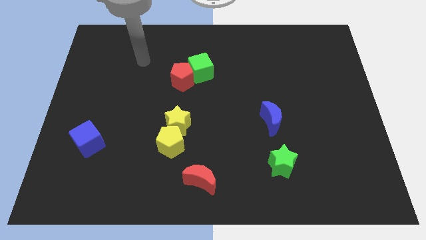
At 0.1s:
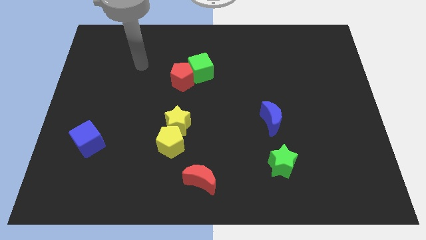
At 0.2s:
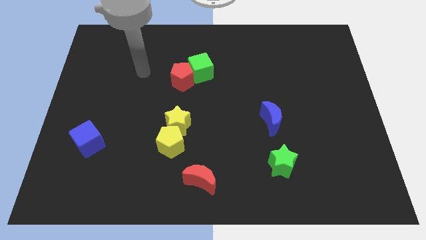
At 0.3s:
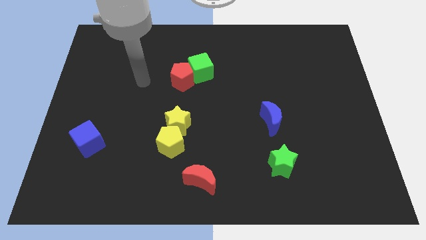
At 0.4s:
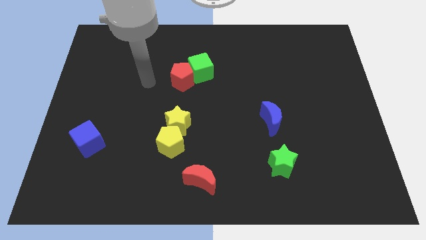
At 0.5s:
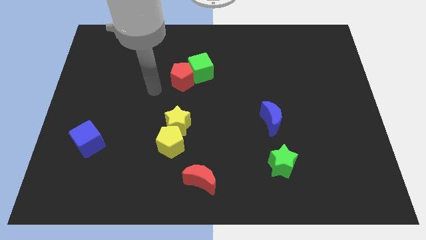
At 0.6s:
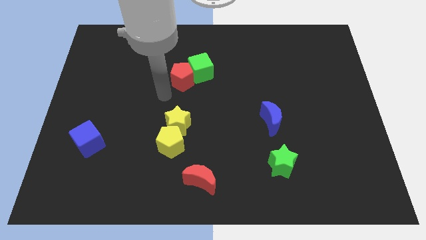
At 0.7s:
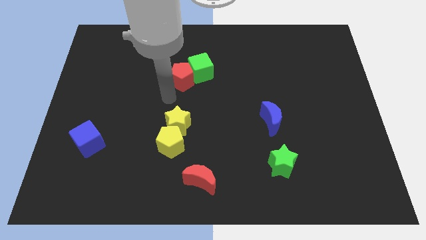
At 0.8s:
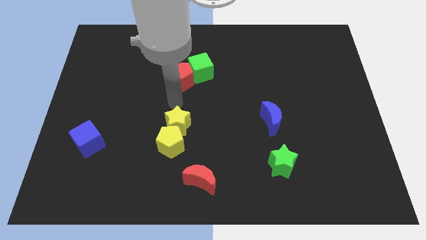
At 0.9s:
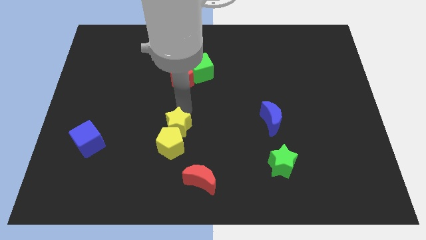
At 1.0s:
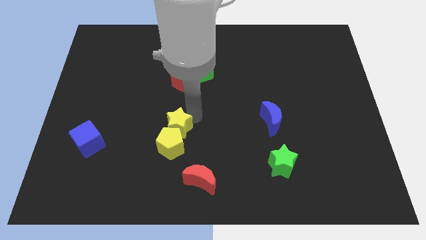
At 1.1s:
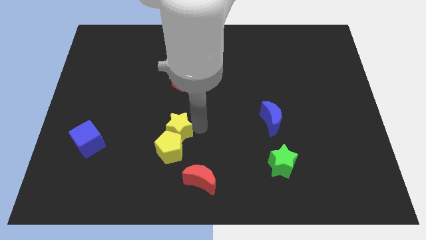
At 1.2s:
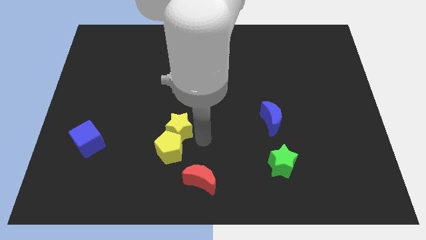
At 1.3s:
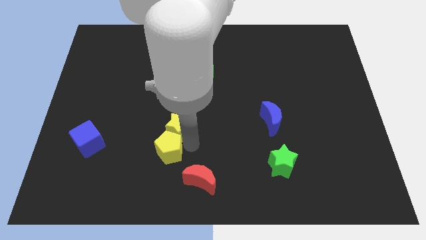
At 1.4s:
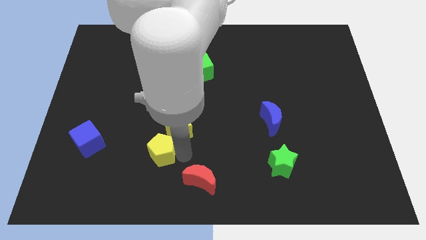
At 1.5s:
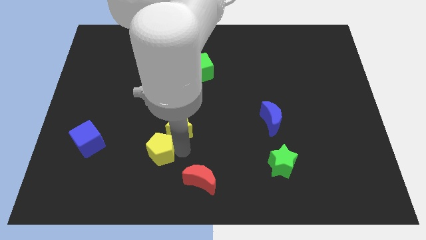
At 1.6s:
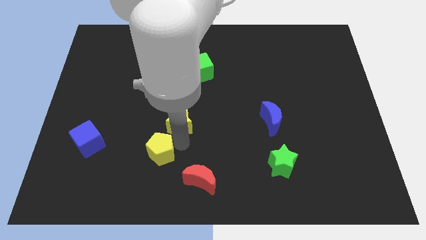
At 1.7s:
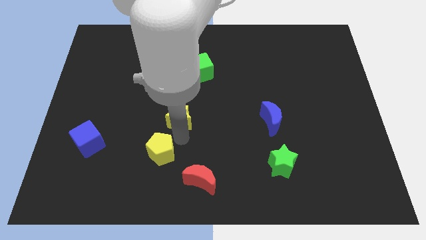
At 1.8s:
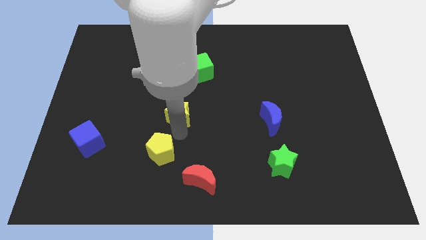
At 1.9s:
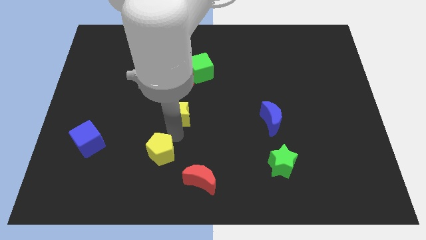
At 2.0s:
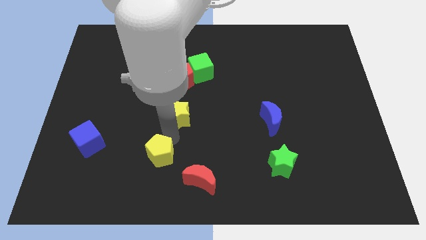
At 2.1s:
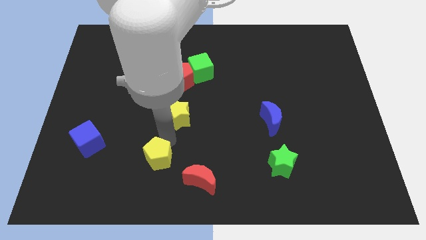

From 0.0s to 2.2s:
separate the yellow star from the yellow pentagon

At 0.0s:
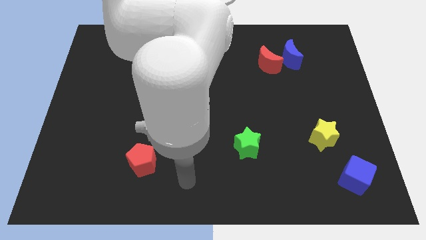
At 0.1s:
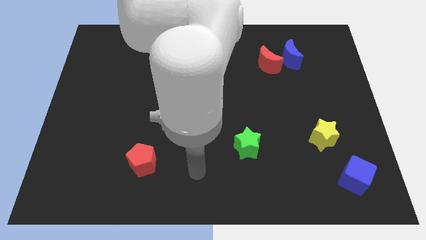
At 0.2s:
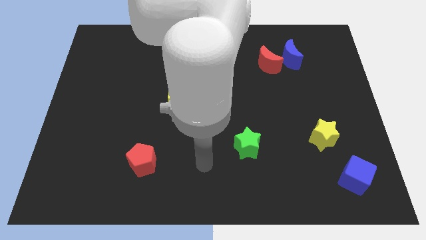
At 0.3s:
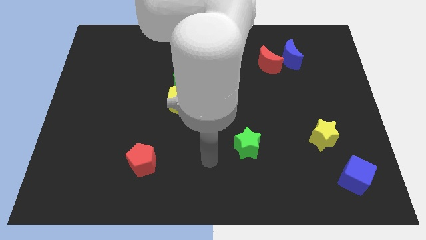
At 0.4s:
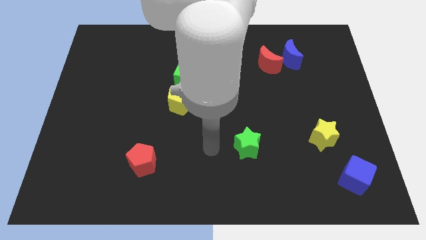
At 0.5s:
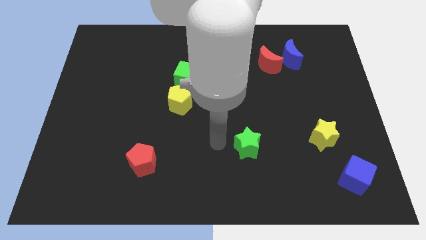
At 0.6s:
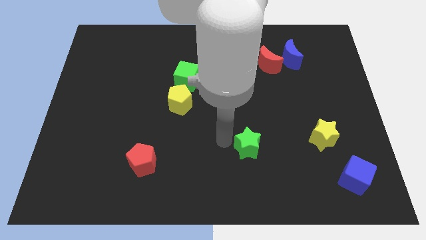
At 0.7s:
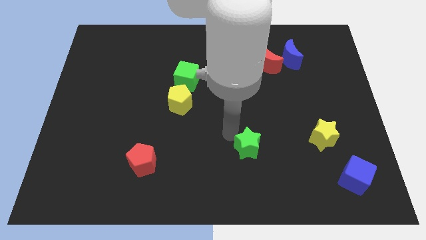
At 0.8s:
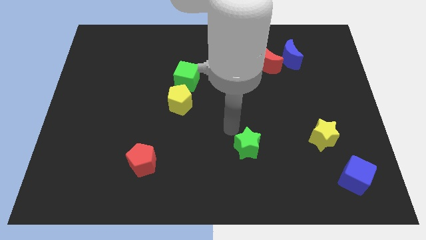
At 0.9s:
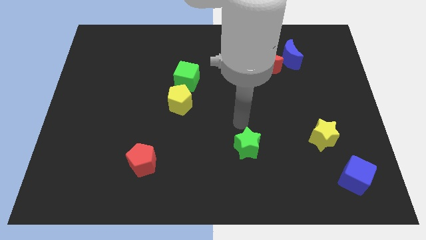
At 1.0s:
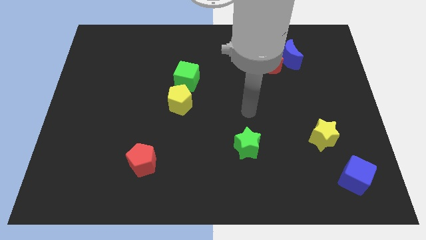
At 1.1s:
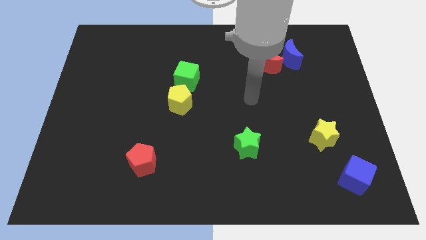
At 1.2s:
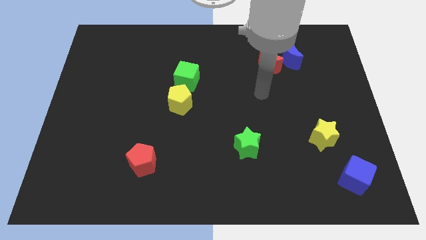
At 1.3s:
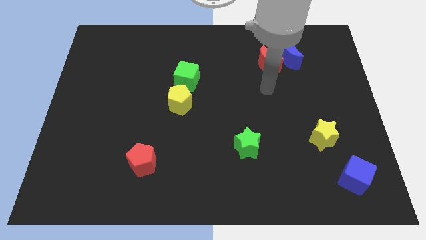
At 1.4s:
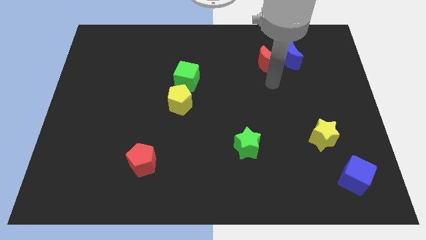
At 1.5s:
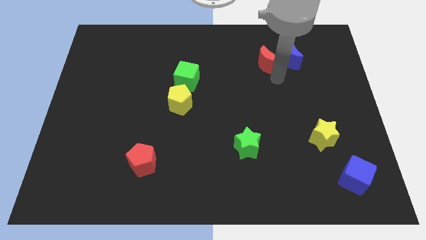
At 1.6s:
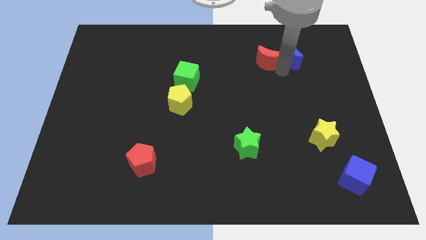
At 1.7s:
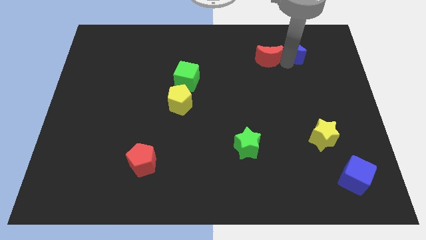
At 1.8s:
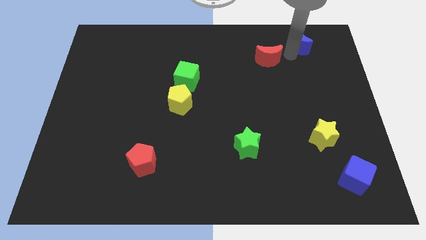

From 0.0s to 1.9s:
separate the red moon from the blue moon

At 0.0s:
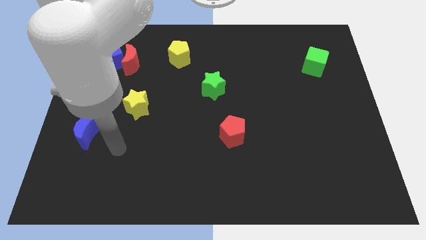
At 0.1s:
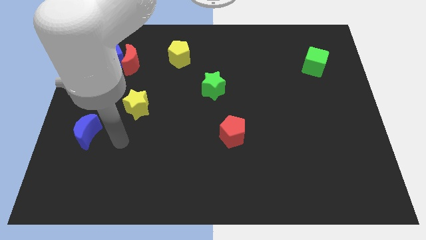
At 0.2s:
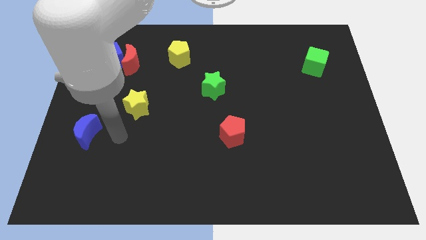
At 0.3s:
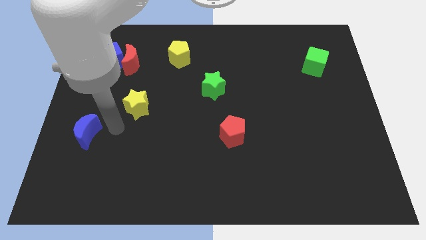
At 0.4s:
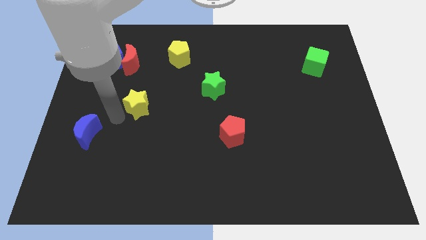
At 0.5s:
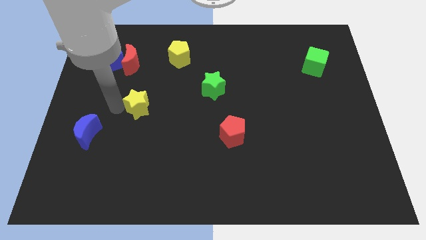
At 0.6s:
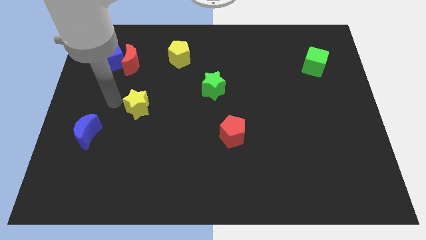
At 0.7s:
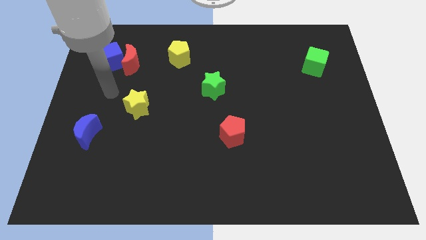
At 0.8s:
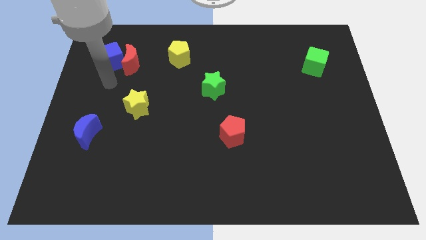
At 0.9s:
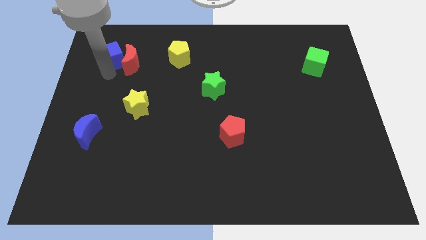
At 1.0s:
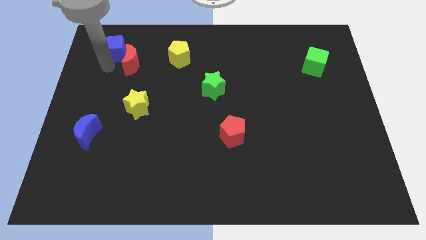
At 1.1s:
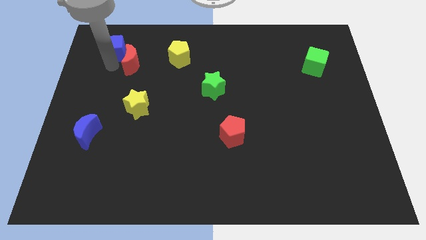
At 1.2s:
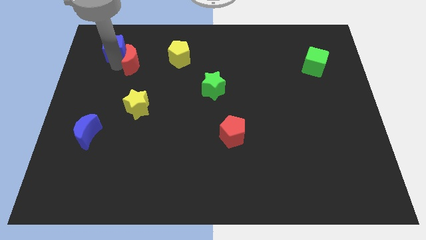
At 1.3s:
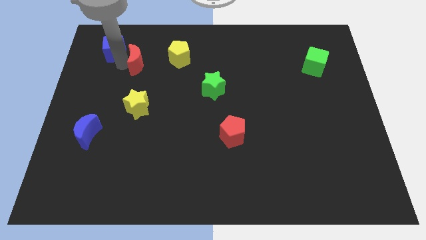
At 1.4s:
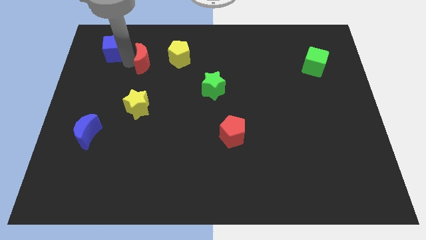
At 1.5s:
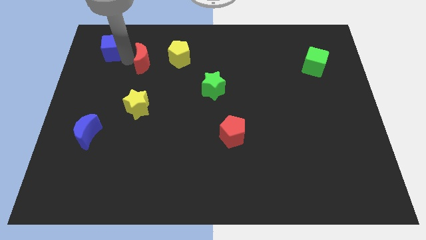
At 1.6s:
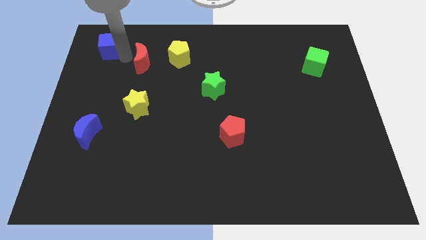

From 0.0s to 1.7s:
separate the red moon from the blue cube

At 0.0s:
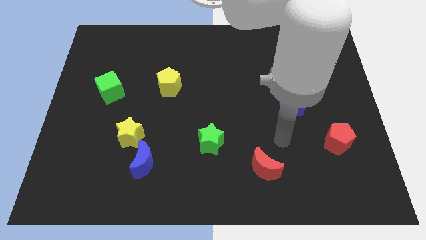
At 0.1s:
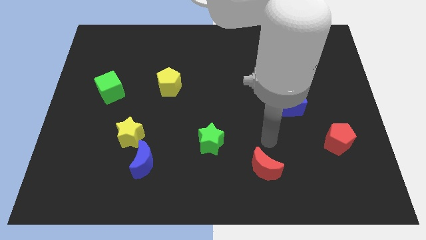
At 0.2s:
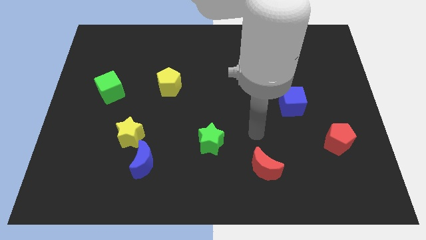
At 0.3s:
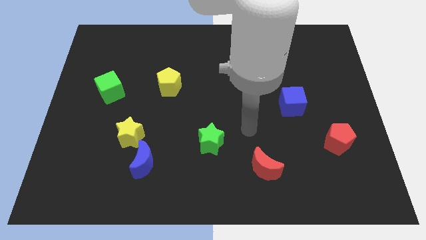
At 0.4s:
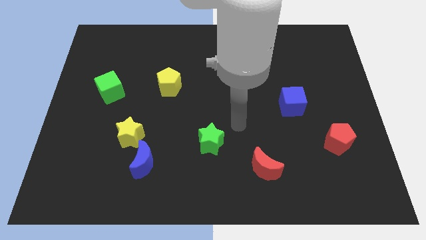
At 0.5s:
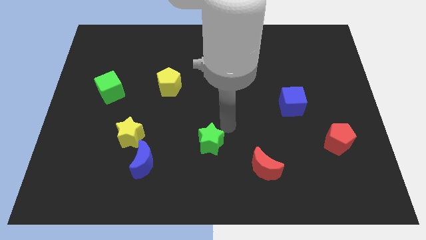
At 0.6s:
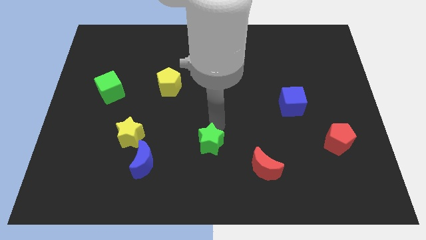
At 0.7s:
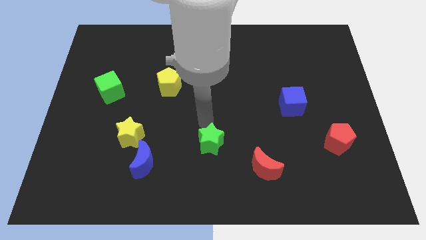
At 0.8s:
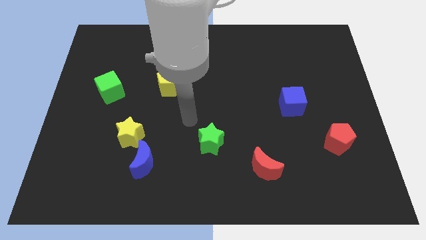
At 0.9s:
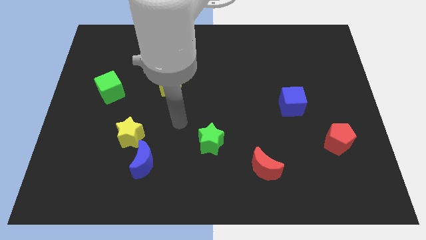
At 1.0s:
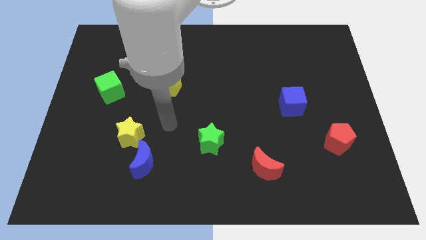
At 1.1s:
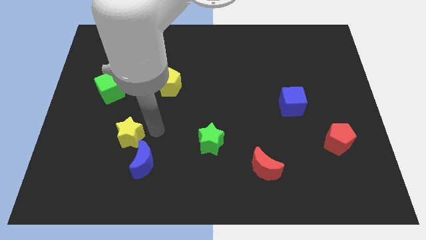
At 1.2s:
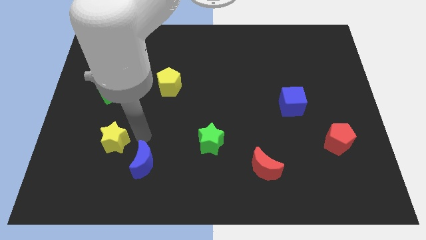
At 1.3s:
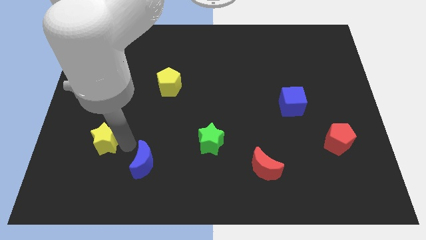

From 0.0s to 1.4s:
pull the blue moon apart from the yellow star

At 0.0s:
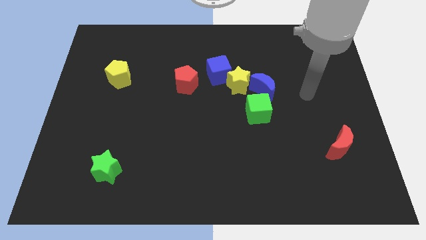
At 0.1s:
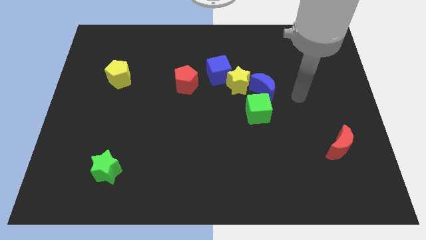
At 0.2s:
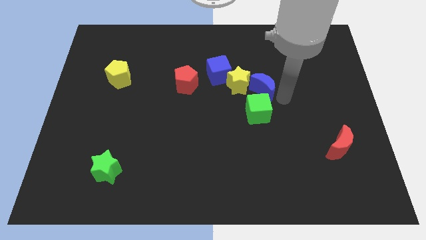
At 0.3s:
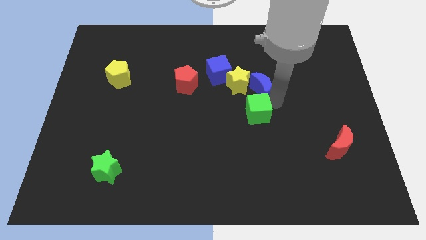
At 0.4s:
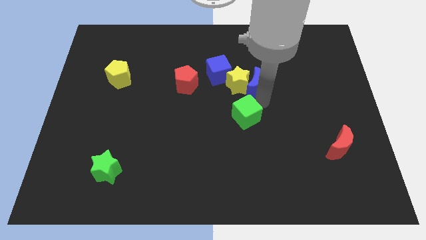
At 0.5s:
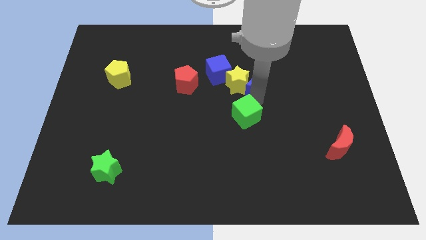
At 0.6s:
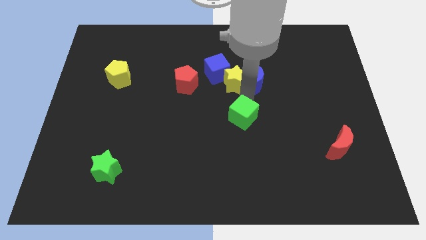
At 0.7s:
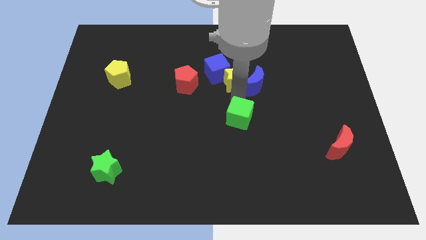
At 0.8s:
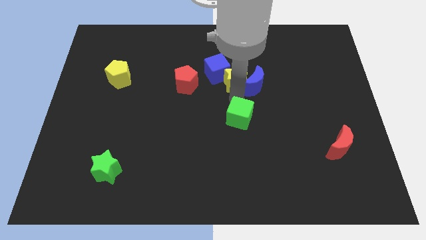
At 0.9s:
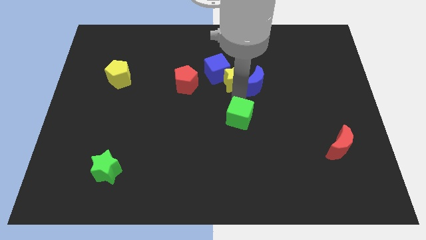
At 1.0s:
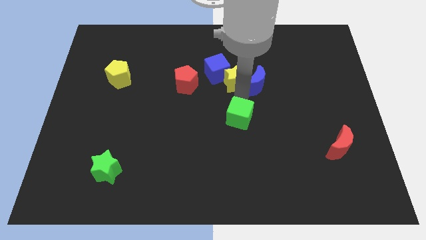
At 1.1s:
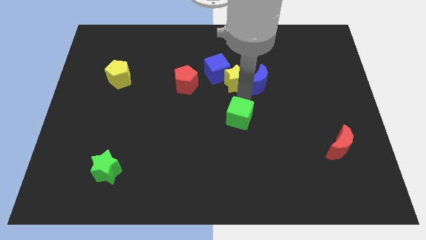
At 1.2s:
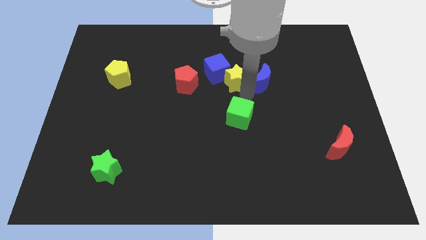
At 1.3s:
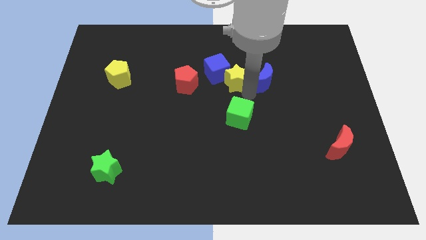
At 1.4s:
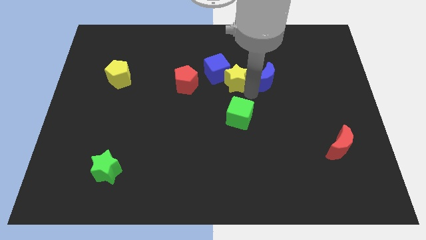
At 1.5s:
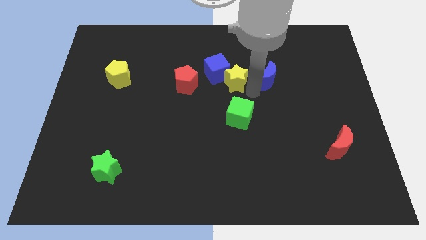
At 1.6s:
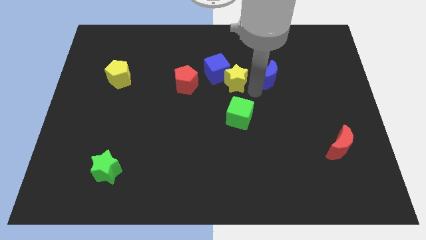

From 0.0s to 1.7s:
separate the blue moon from the yellow star and green cube

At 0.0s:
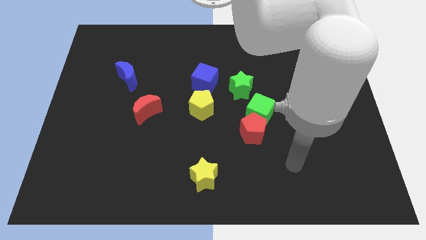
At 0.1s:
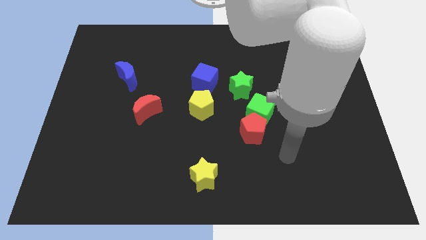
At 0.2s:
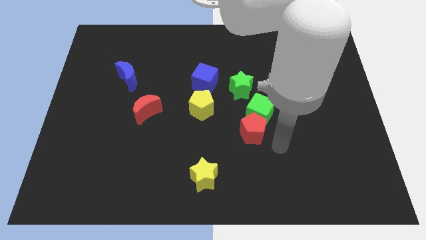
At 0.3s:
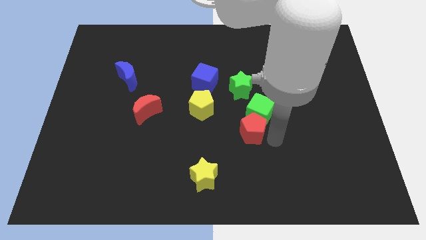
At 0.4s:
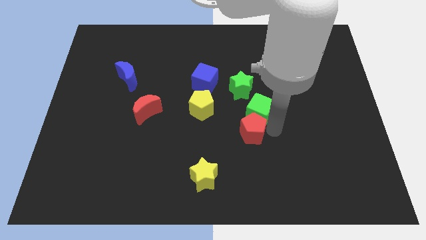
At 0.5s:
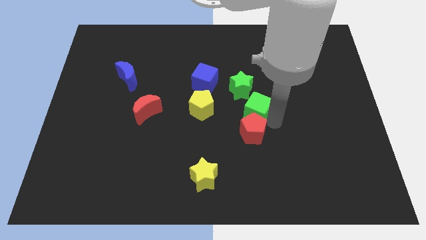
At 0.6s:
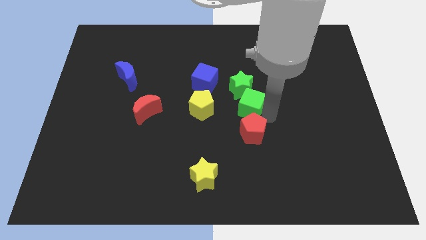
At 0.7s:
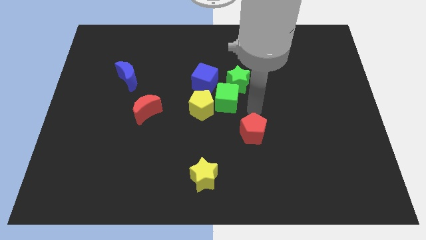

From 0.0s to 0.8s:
move the red pentagon away from the green cube
